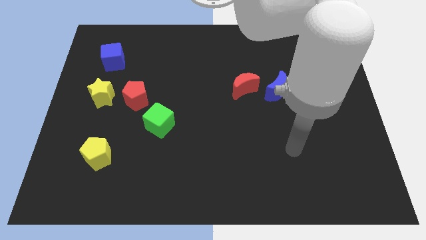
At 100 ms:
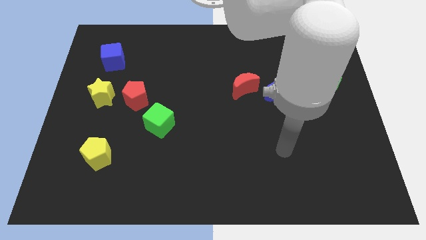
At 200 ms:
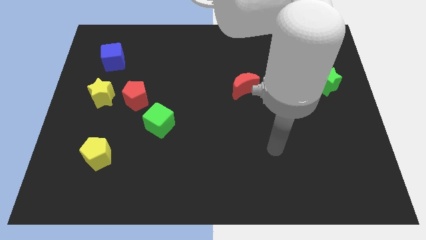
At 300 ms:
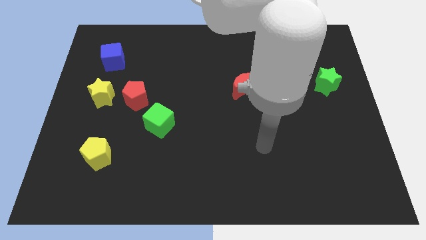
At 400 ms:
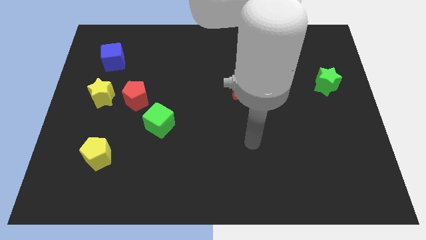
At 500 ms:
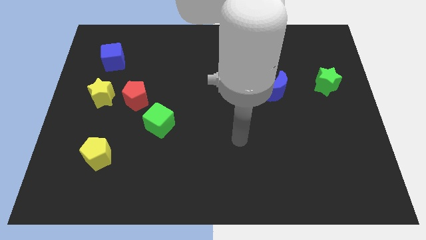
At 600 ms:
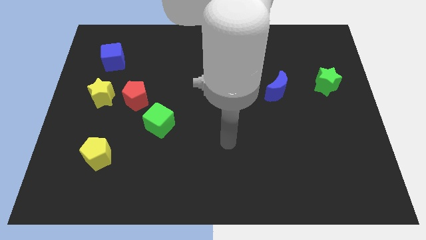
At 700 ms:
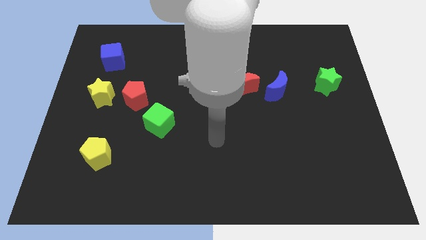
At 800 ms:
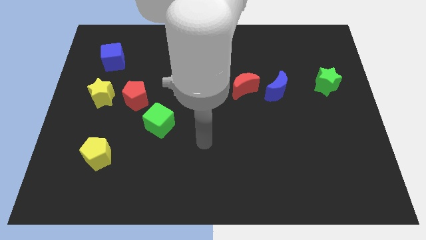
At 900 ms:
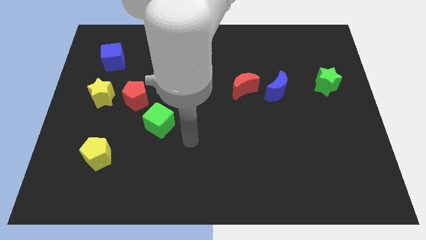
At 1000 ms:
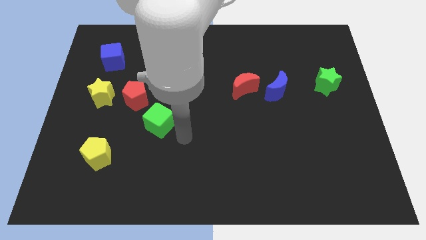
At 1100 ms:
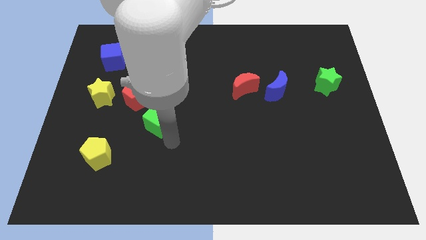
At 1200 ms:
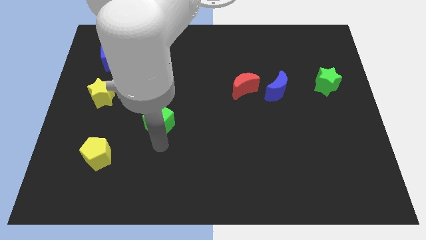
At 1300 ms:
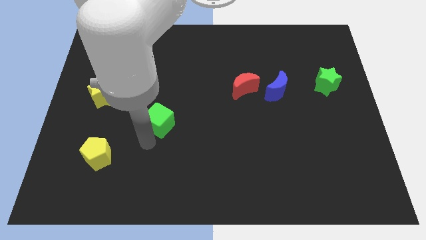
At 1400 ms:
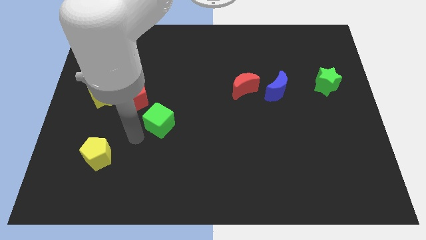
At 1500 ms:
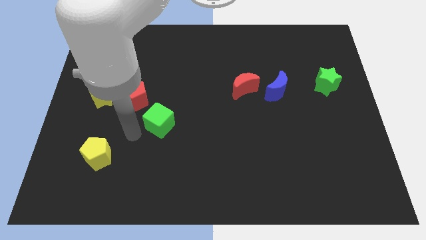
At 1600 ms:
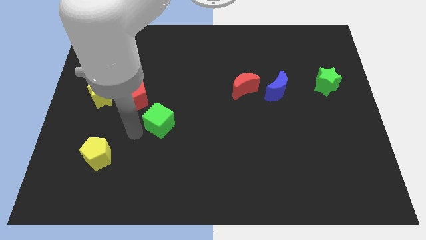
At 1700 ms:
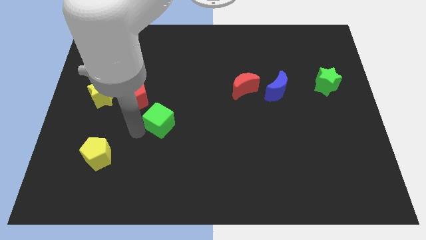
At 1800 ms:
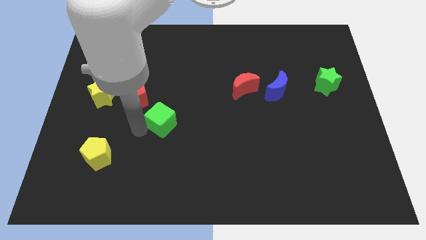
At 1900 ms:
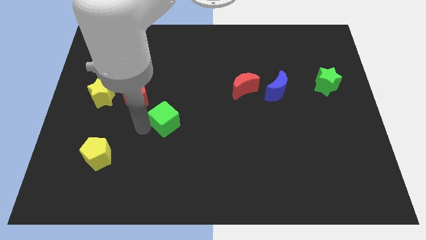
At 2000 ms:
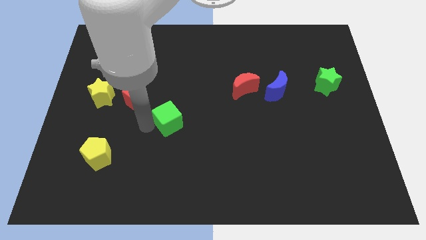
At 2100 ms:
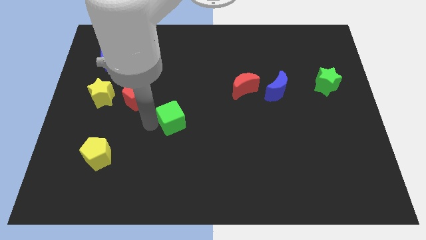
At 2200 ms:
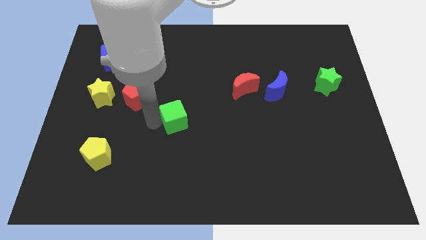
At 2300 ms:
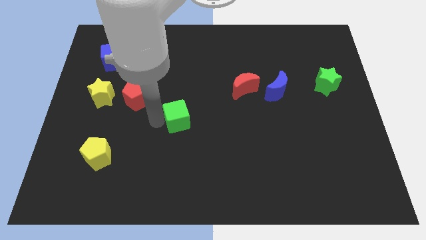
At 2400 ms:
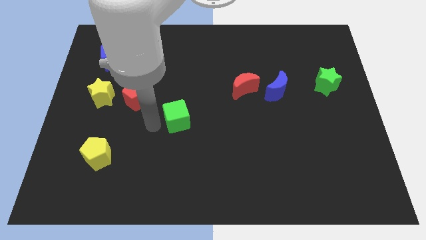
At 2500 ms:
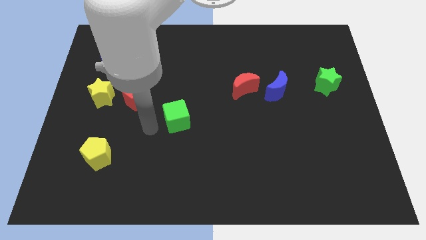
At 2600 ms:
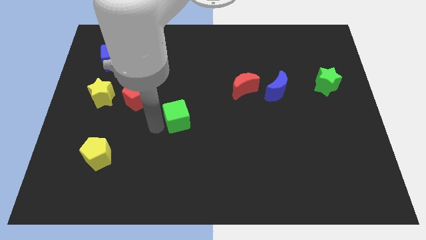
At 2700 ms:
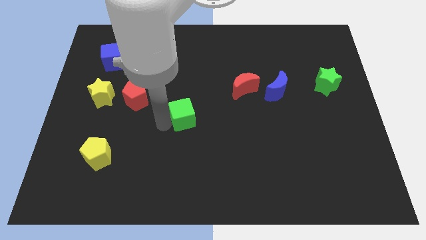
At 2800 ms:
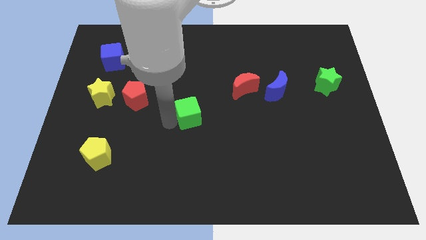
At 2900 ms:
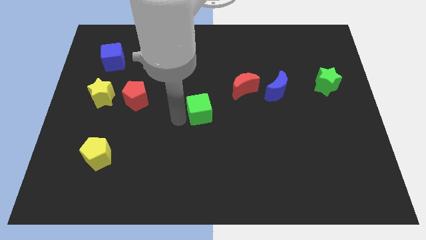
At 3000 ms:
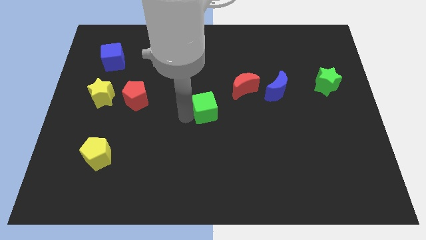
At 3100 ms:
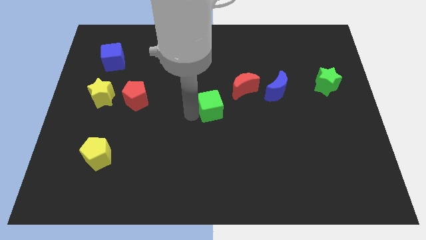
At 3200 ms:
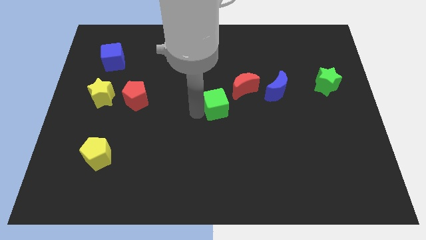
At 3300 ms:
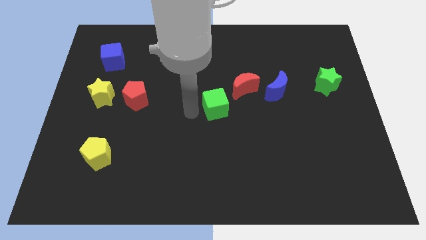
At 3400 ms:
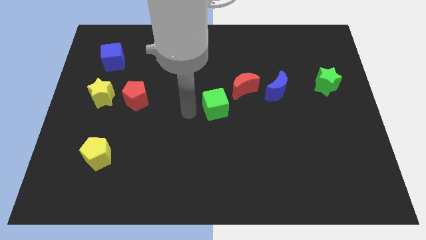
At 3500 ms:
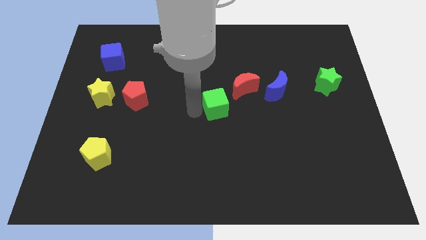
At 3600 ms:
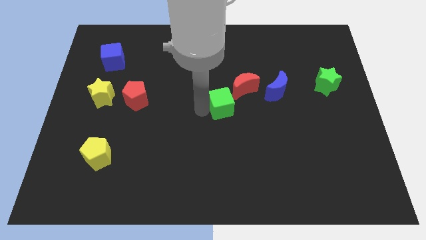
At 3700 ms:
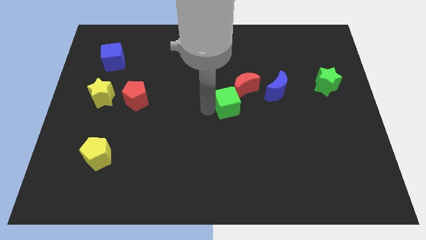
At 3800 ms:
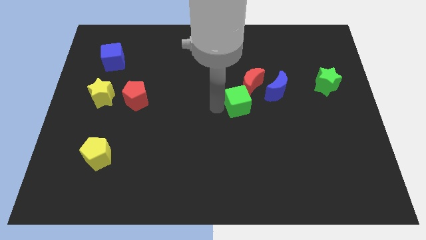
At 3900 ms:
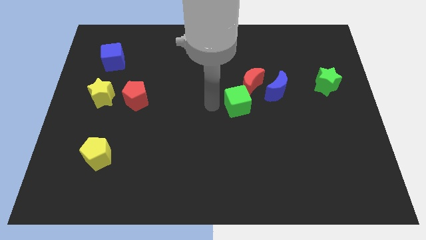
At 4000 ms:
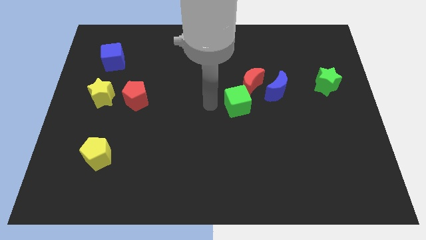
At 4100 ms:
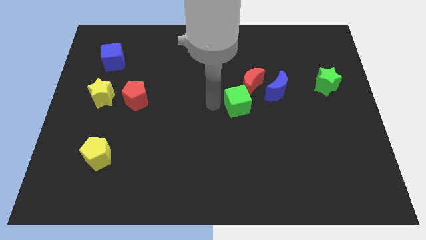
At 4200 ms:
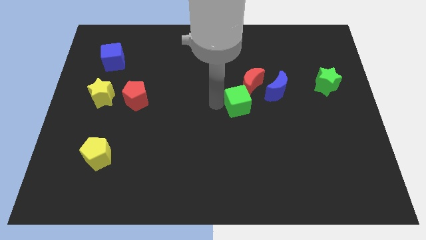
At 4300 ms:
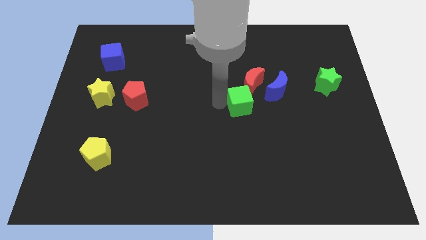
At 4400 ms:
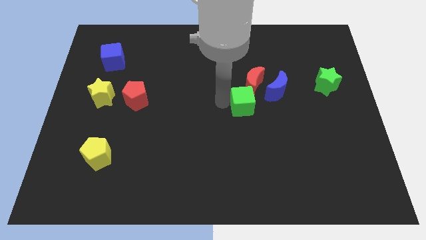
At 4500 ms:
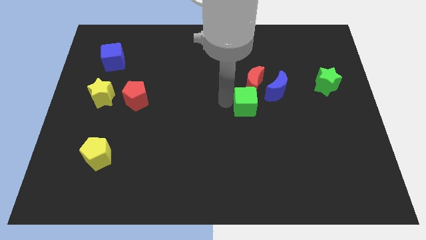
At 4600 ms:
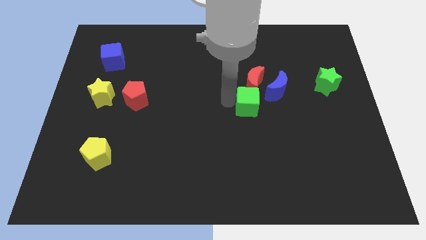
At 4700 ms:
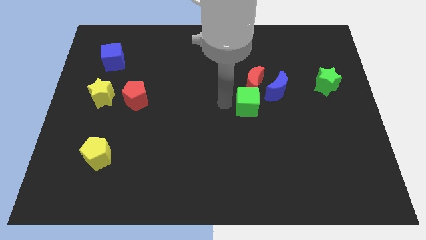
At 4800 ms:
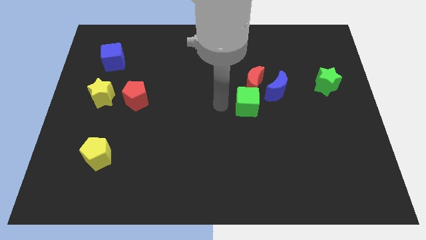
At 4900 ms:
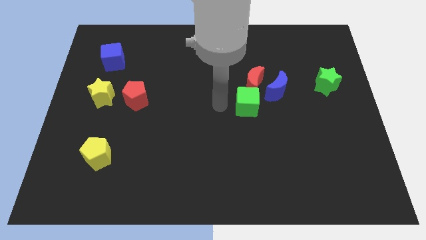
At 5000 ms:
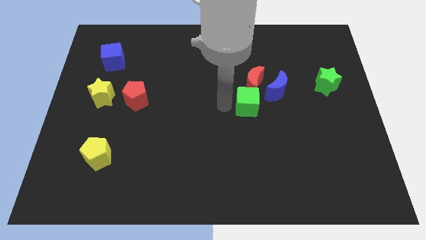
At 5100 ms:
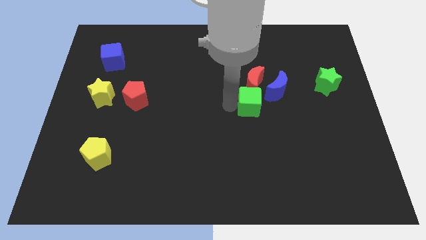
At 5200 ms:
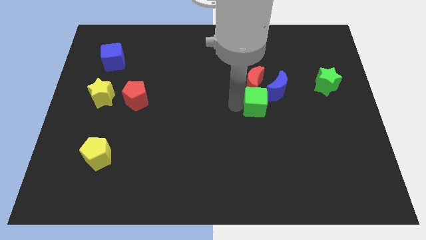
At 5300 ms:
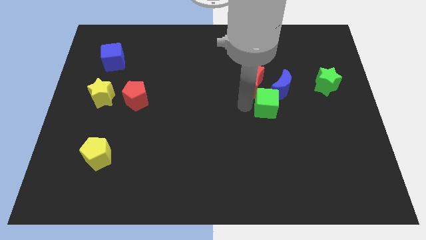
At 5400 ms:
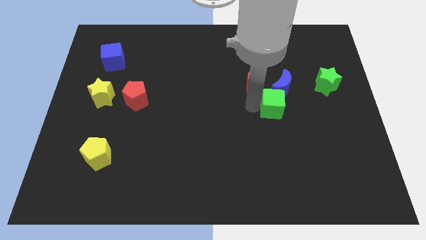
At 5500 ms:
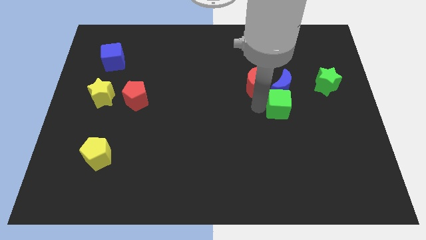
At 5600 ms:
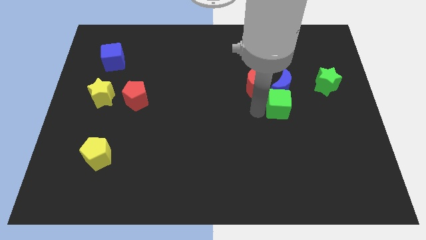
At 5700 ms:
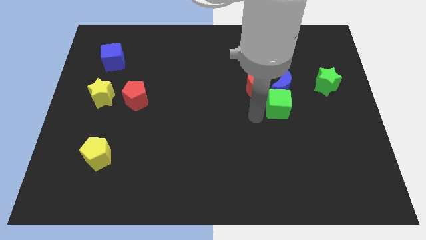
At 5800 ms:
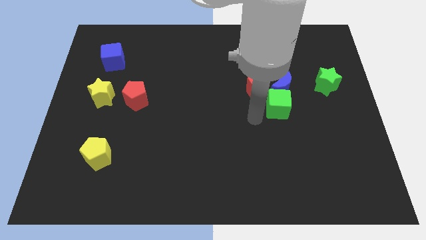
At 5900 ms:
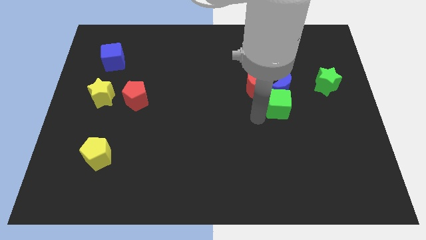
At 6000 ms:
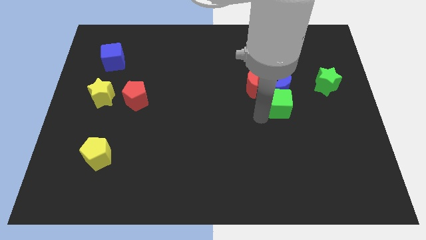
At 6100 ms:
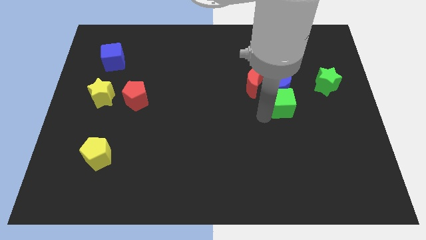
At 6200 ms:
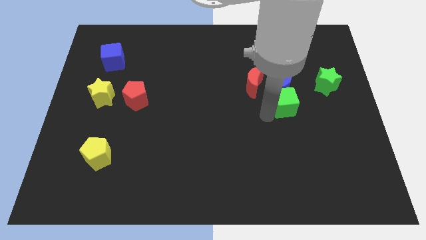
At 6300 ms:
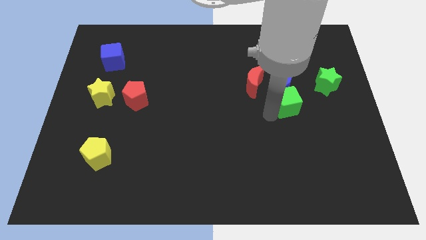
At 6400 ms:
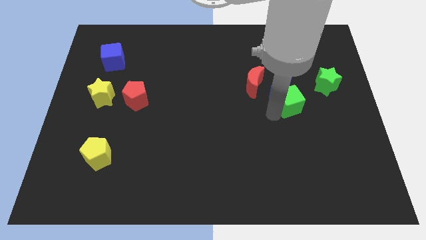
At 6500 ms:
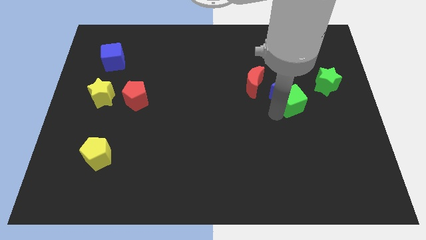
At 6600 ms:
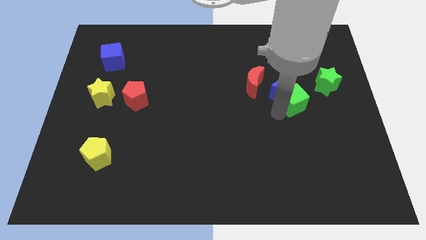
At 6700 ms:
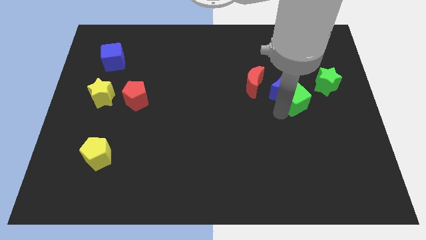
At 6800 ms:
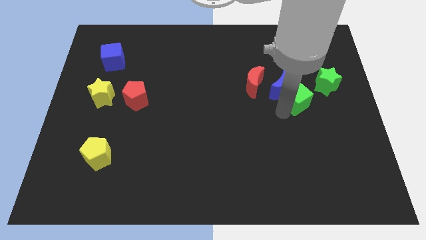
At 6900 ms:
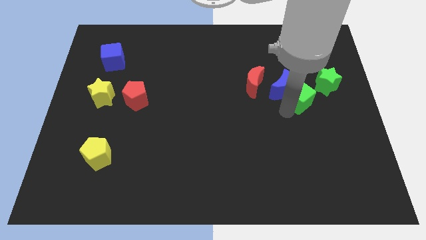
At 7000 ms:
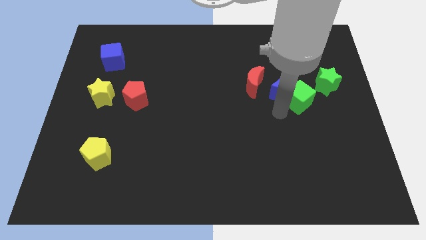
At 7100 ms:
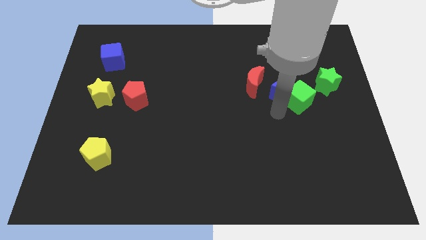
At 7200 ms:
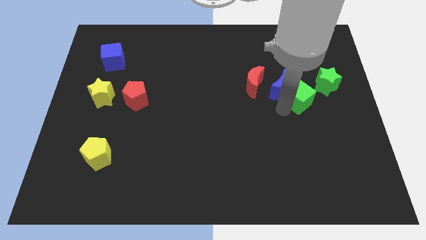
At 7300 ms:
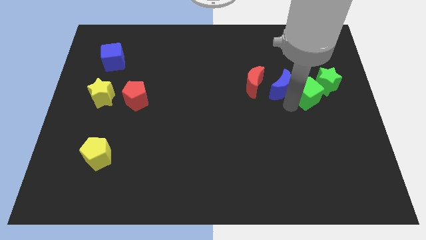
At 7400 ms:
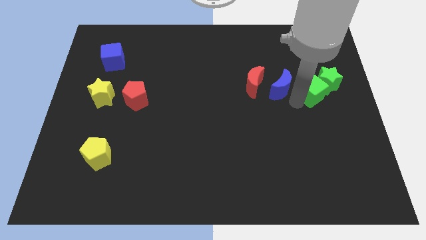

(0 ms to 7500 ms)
put the green cube towards the green star
